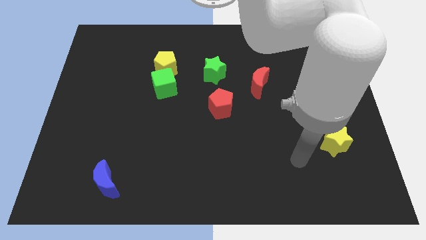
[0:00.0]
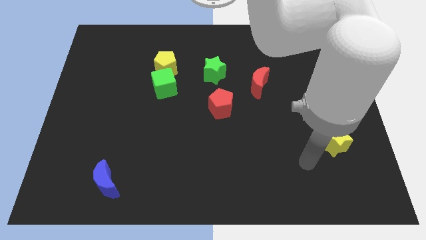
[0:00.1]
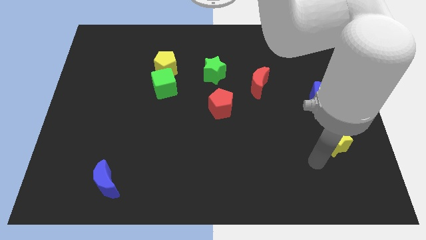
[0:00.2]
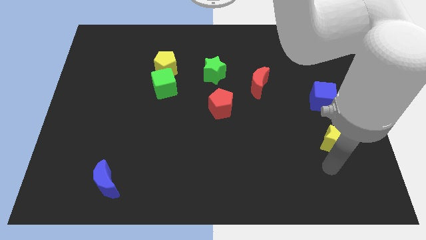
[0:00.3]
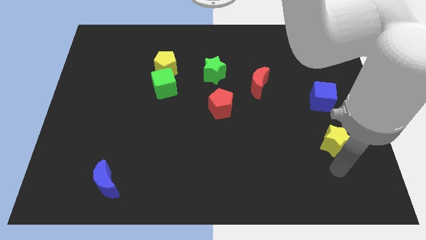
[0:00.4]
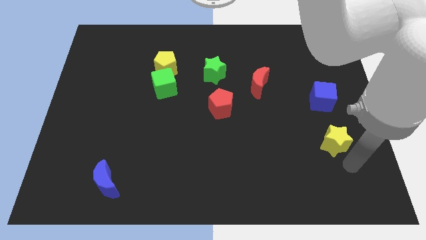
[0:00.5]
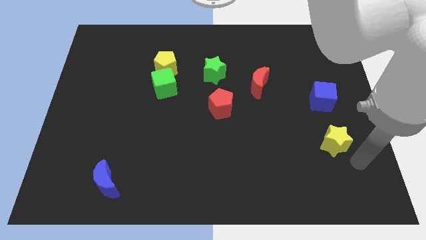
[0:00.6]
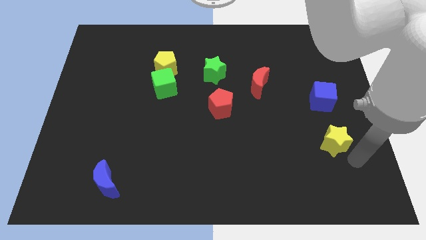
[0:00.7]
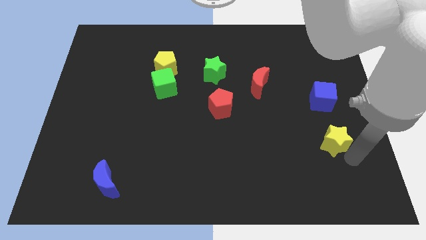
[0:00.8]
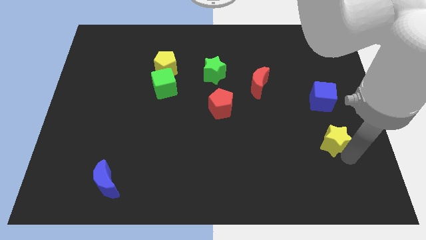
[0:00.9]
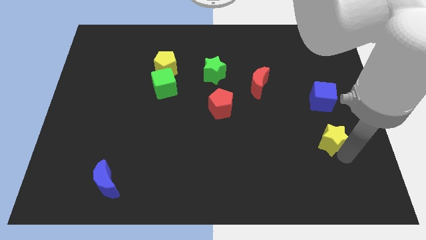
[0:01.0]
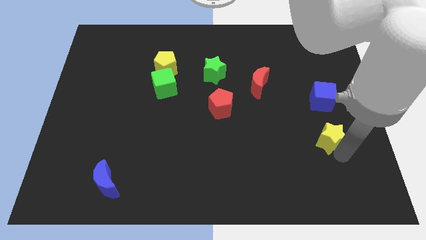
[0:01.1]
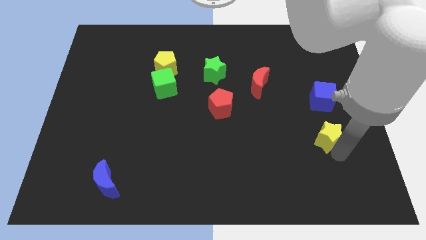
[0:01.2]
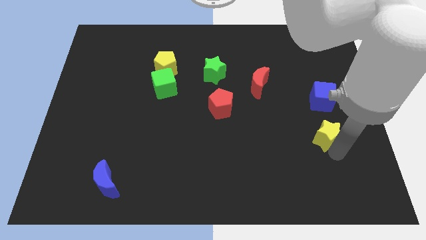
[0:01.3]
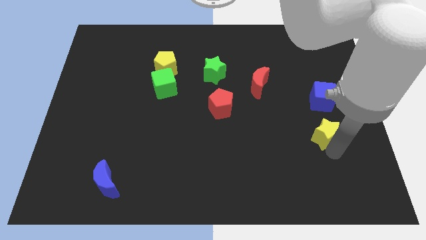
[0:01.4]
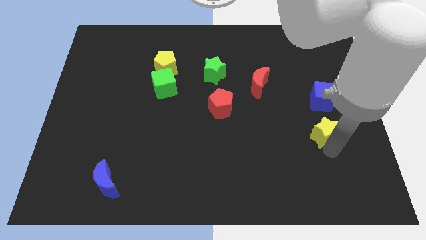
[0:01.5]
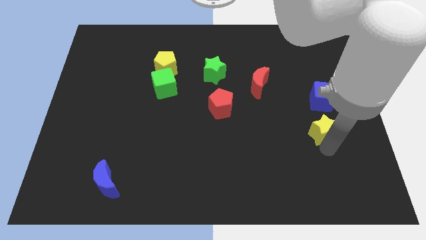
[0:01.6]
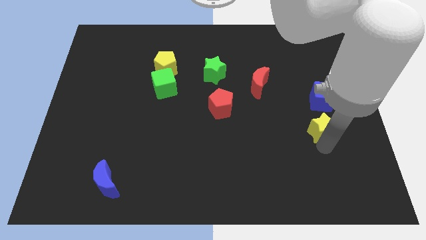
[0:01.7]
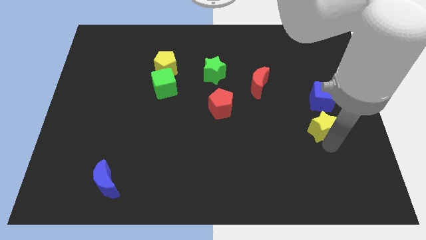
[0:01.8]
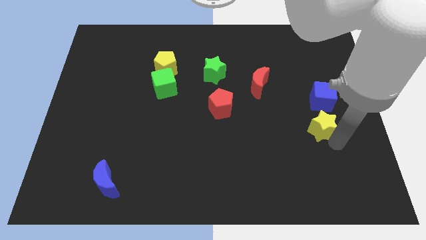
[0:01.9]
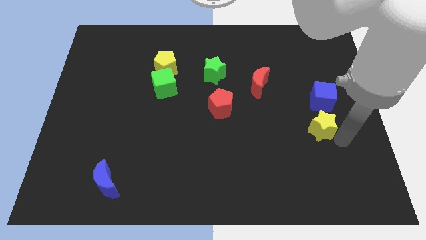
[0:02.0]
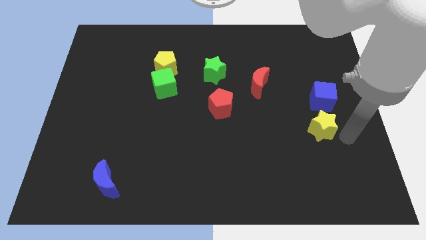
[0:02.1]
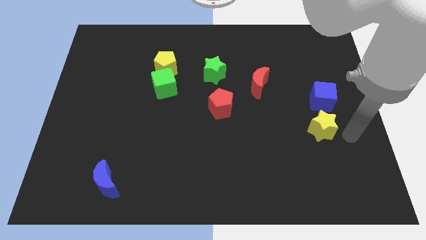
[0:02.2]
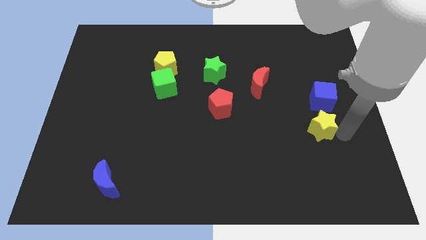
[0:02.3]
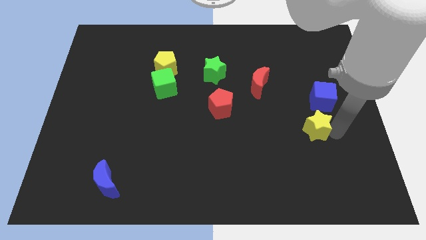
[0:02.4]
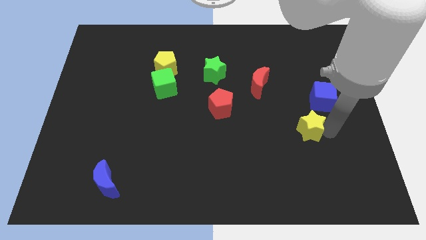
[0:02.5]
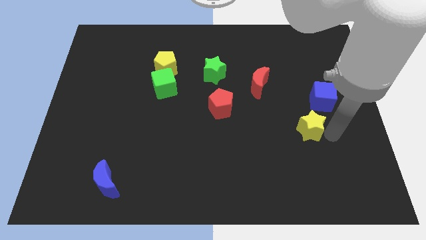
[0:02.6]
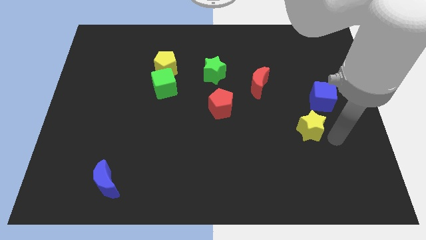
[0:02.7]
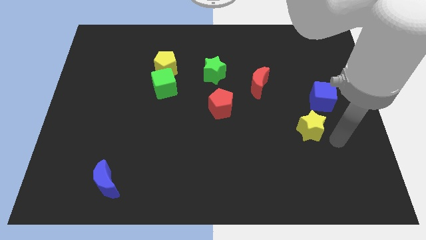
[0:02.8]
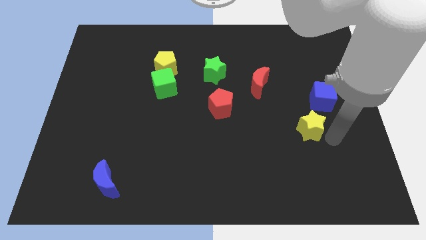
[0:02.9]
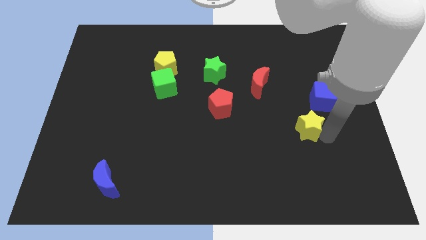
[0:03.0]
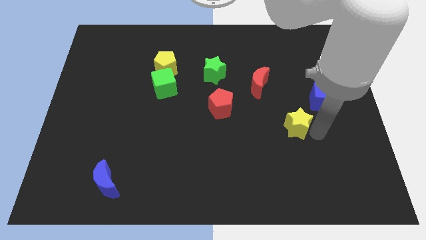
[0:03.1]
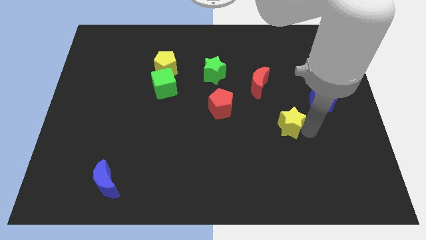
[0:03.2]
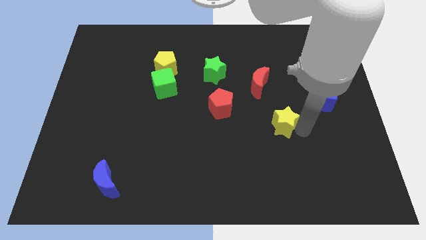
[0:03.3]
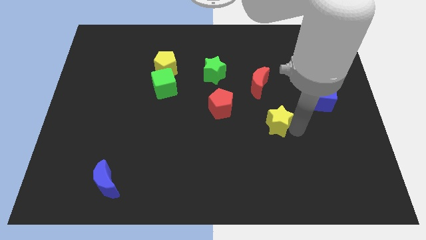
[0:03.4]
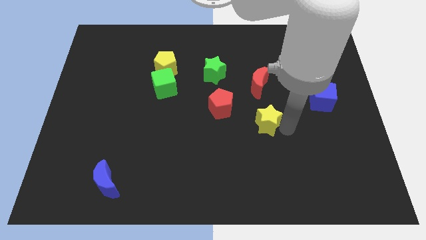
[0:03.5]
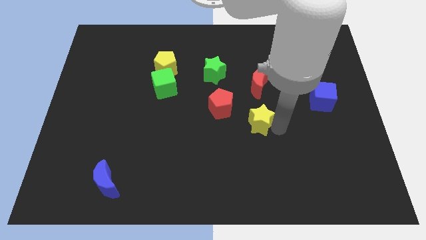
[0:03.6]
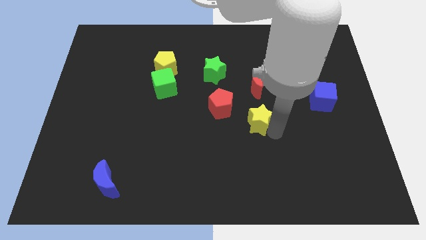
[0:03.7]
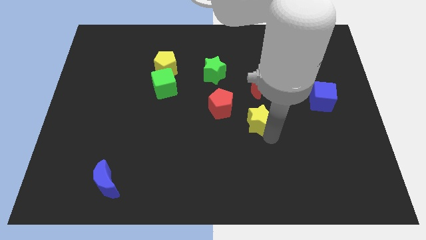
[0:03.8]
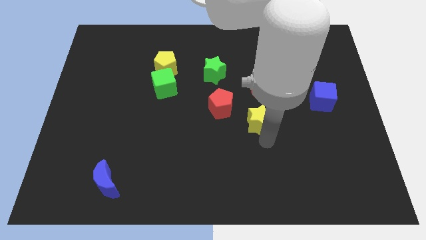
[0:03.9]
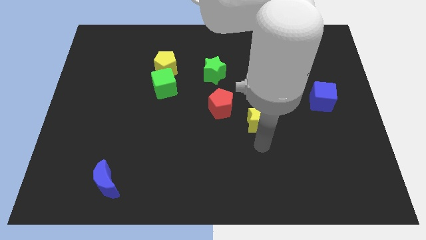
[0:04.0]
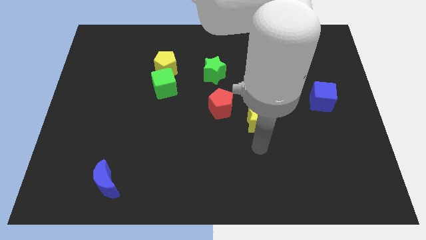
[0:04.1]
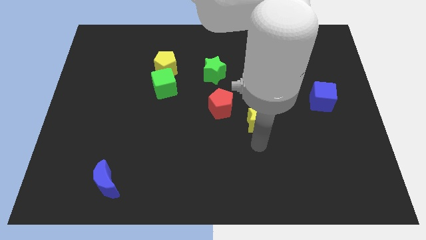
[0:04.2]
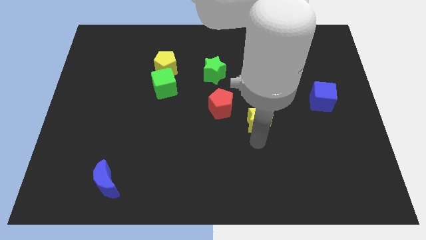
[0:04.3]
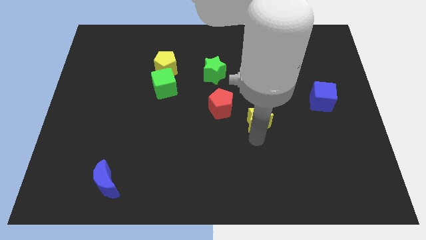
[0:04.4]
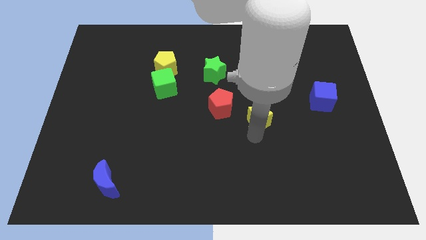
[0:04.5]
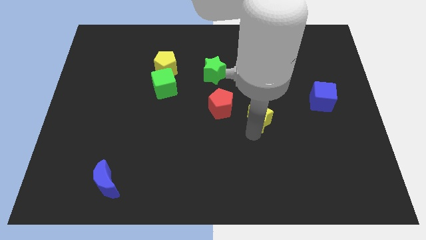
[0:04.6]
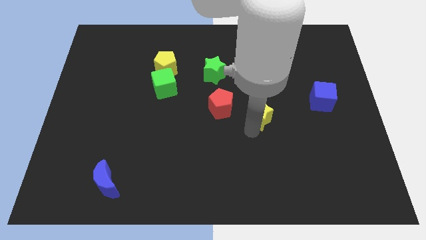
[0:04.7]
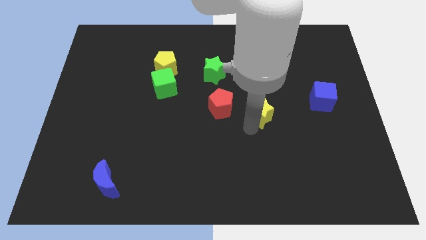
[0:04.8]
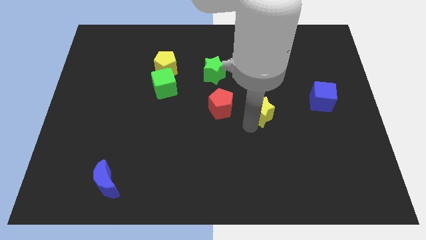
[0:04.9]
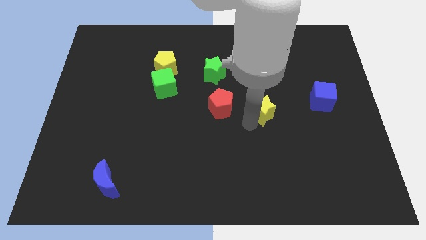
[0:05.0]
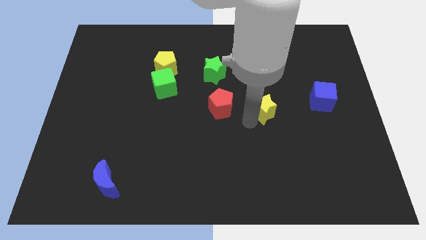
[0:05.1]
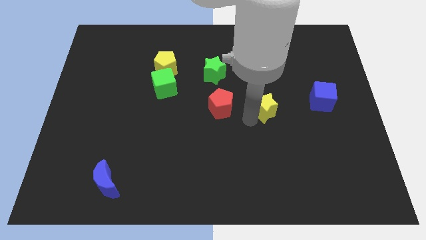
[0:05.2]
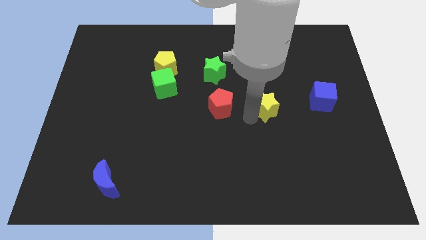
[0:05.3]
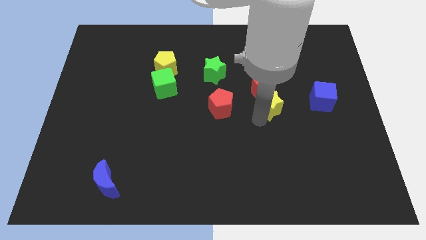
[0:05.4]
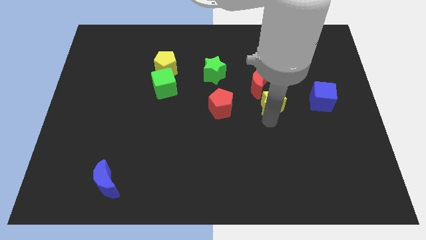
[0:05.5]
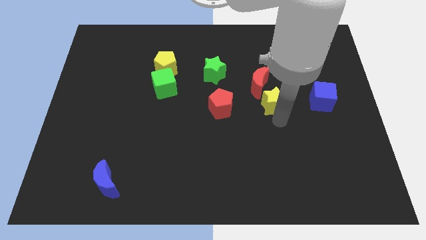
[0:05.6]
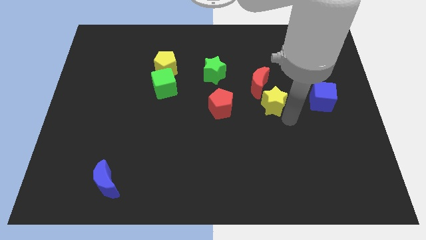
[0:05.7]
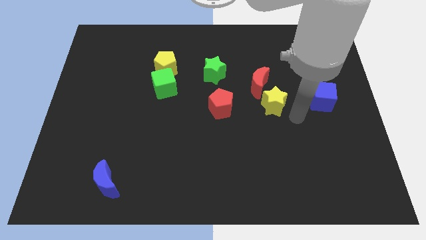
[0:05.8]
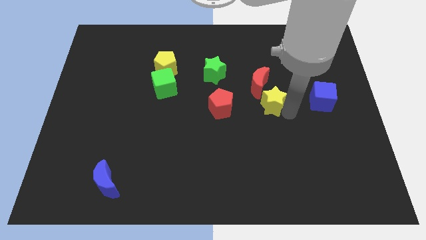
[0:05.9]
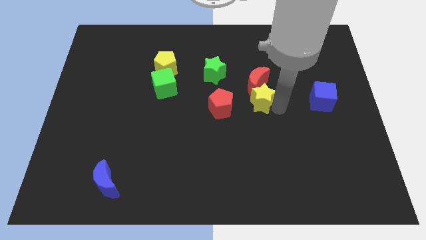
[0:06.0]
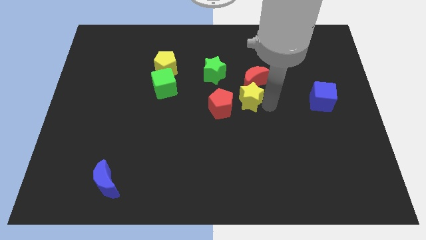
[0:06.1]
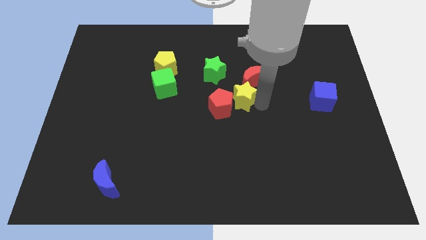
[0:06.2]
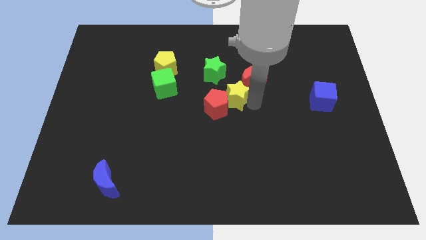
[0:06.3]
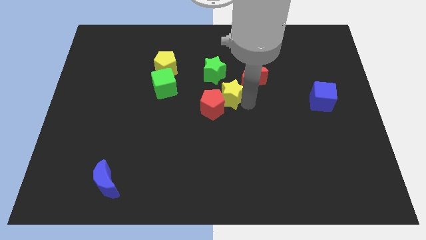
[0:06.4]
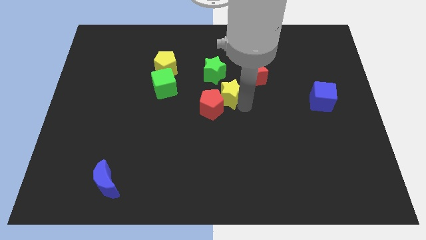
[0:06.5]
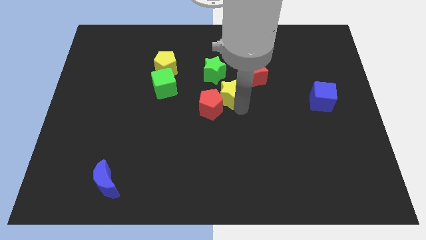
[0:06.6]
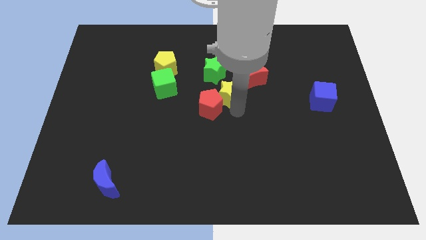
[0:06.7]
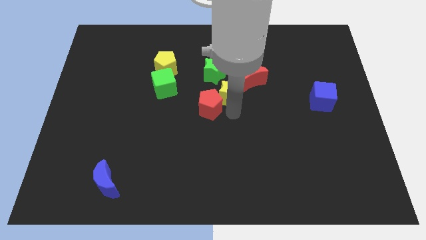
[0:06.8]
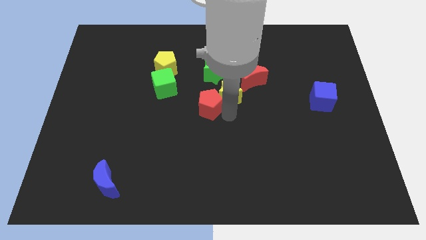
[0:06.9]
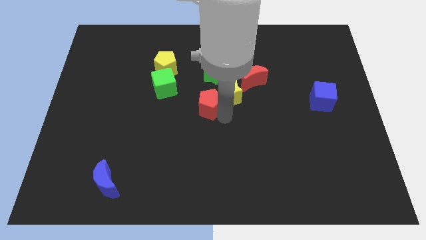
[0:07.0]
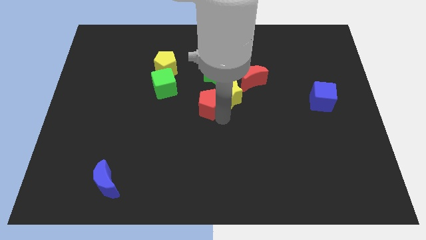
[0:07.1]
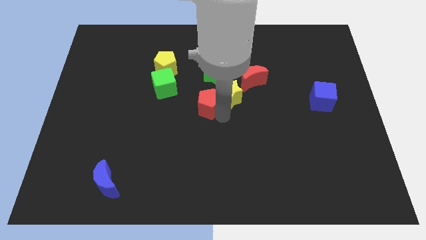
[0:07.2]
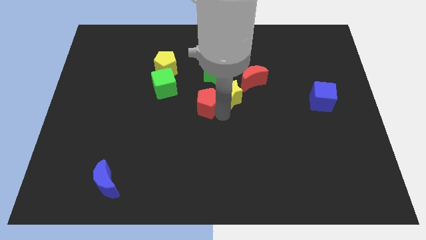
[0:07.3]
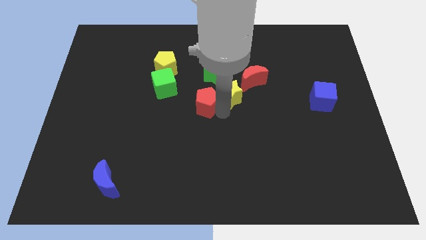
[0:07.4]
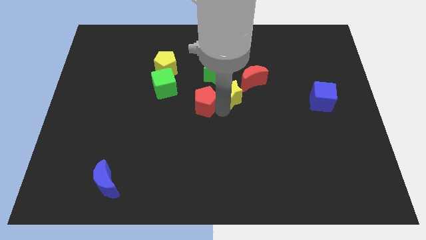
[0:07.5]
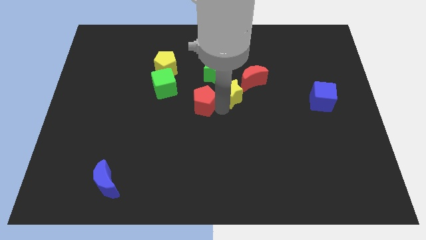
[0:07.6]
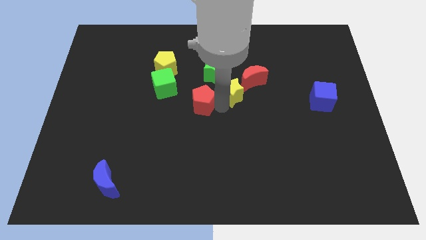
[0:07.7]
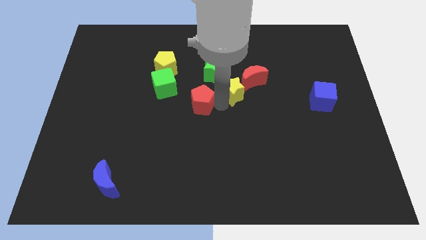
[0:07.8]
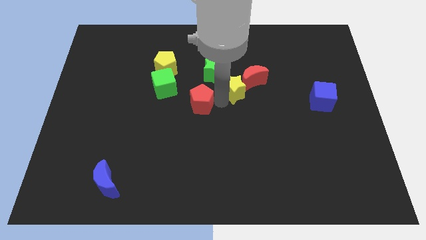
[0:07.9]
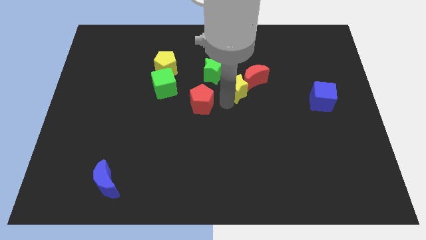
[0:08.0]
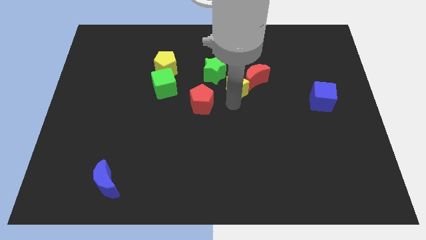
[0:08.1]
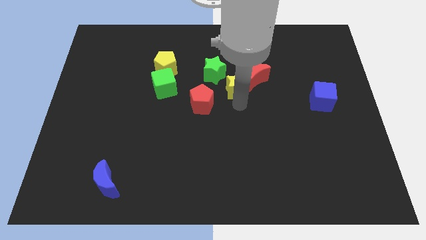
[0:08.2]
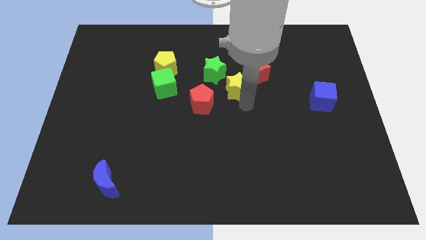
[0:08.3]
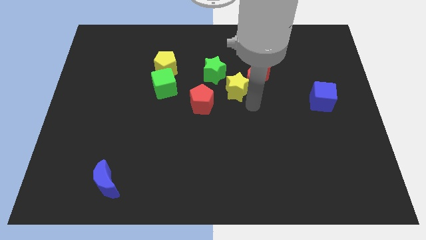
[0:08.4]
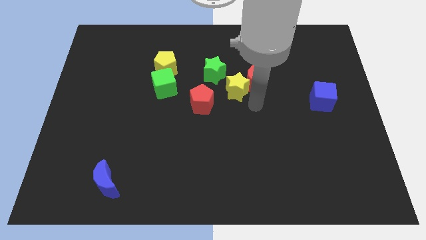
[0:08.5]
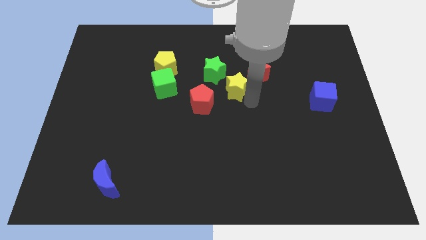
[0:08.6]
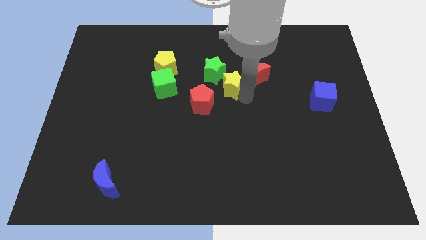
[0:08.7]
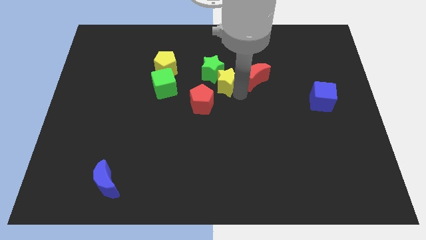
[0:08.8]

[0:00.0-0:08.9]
move the yellow star next to the green star
